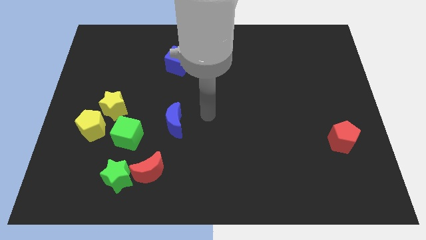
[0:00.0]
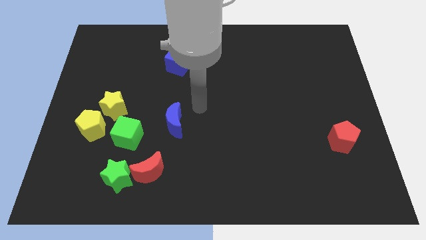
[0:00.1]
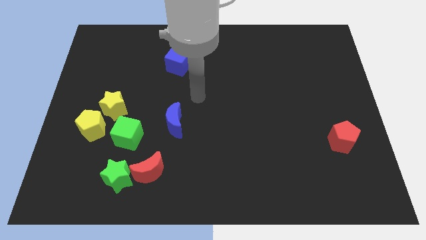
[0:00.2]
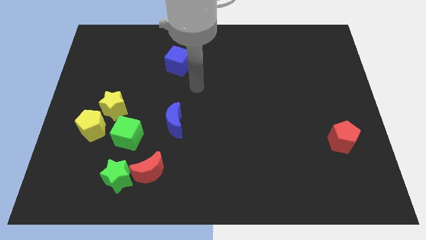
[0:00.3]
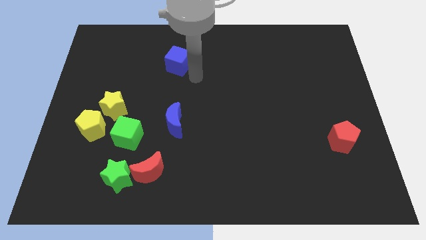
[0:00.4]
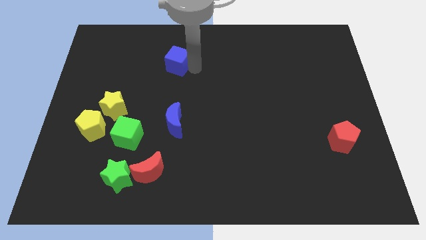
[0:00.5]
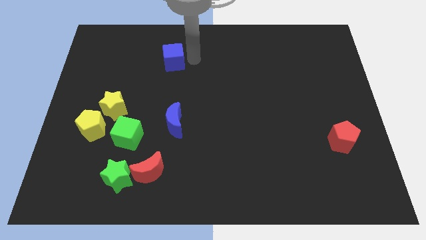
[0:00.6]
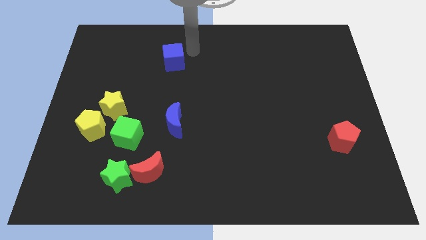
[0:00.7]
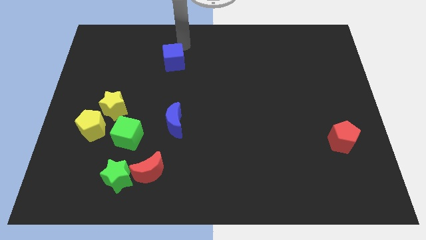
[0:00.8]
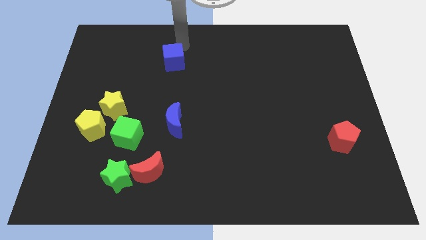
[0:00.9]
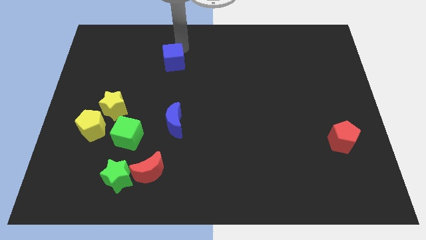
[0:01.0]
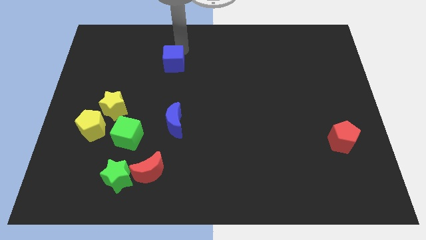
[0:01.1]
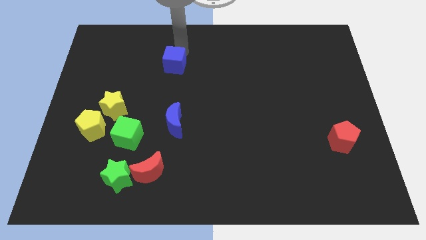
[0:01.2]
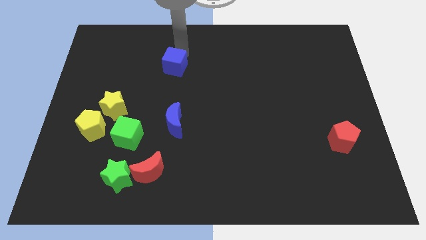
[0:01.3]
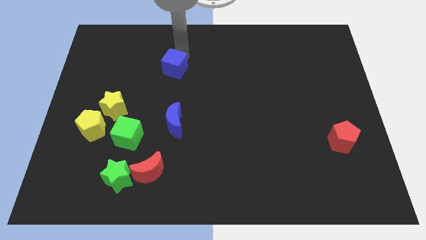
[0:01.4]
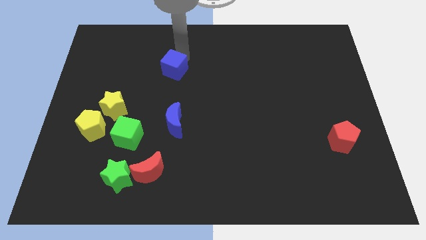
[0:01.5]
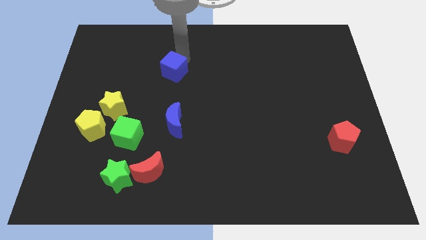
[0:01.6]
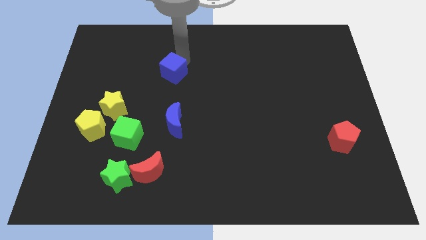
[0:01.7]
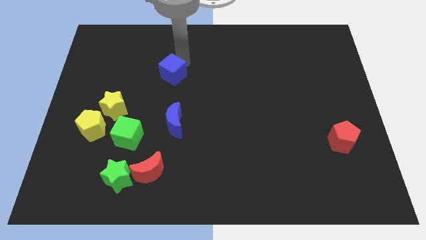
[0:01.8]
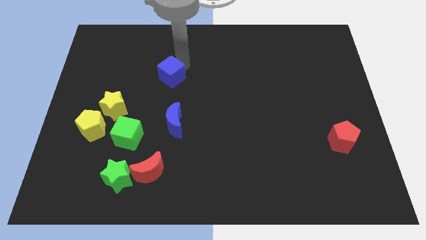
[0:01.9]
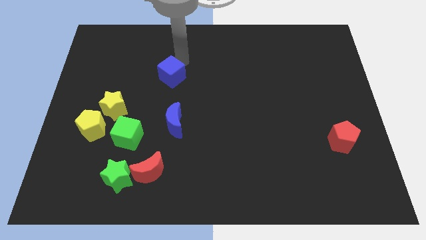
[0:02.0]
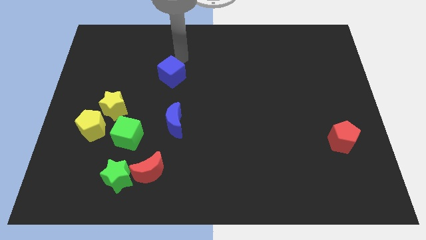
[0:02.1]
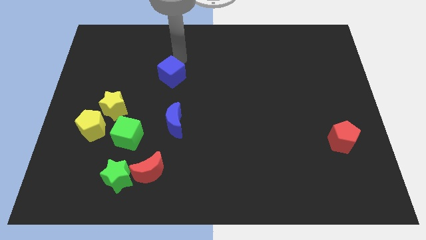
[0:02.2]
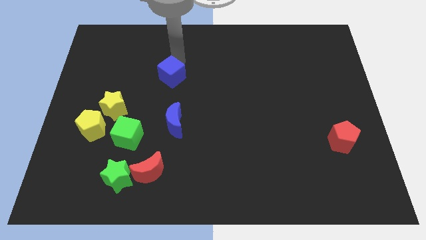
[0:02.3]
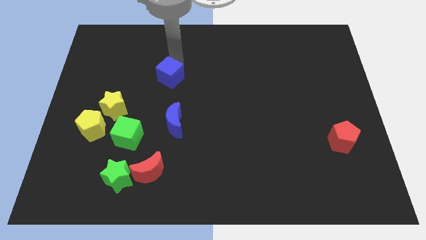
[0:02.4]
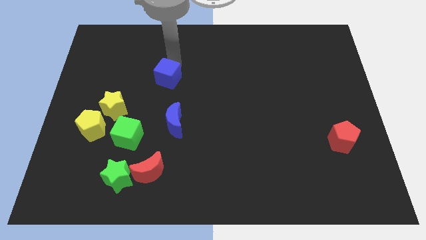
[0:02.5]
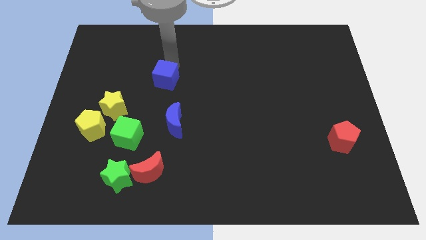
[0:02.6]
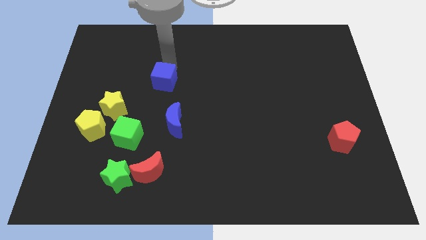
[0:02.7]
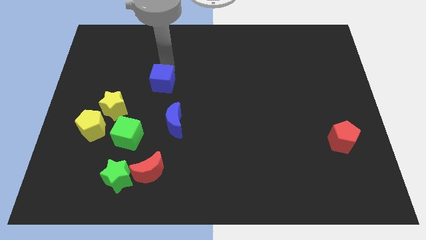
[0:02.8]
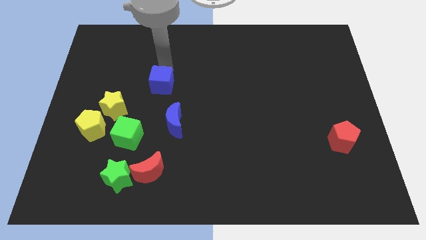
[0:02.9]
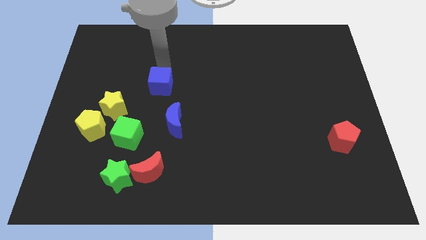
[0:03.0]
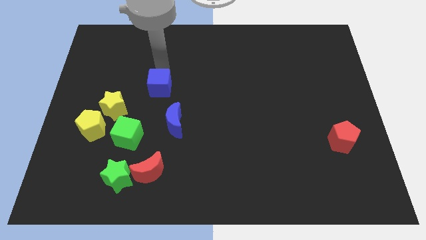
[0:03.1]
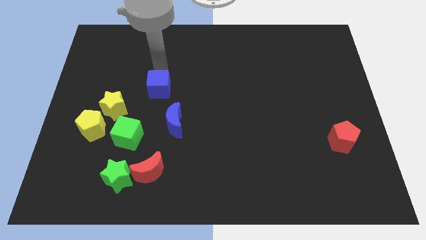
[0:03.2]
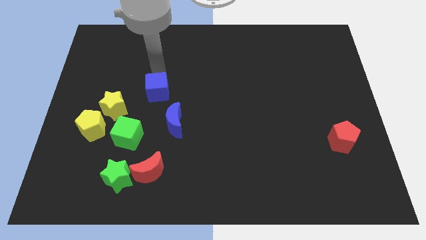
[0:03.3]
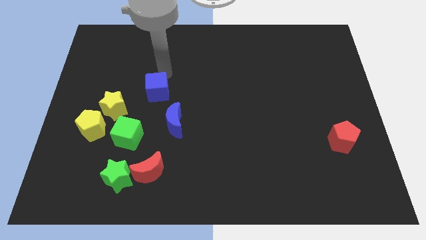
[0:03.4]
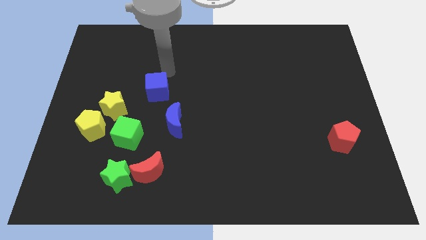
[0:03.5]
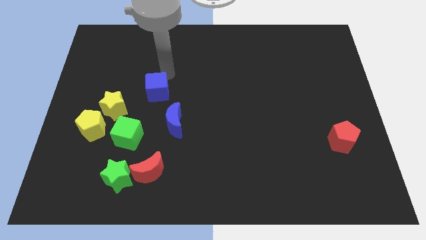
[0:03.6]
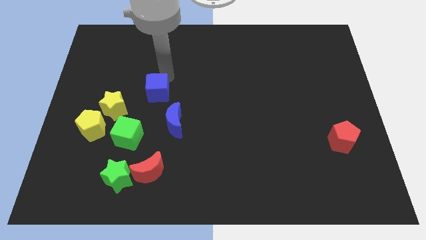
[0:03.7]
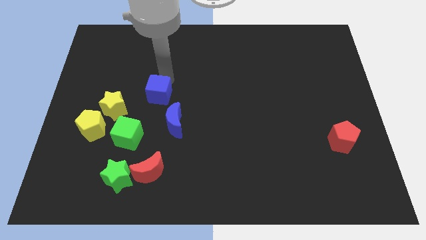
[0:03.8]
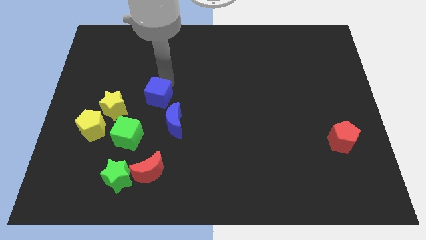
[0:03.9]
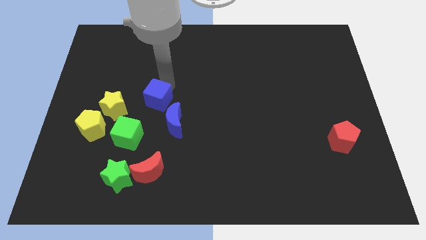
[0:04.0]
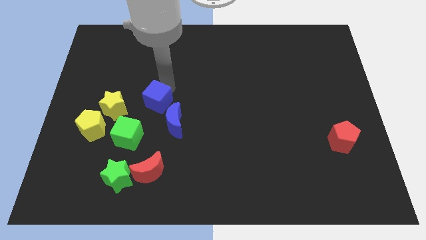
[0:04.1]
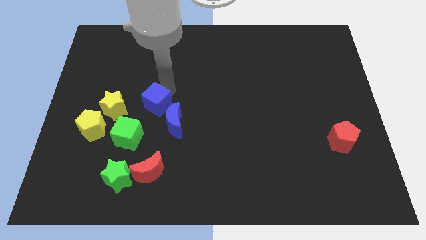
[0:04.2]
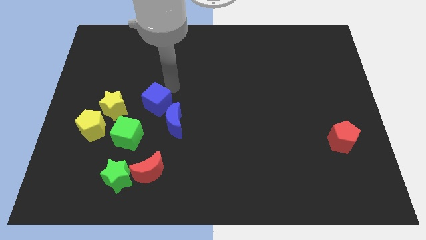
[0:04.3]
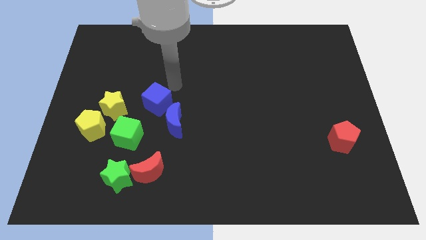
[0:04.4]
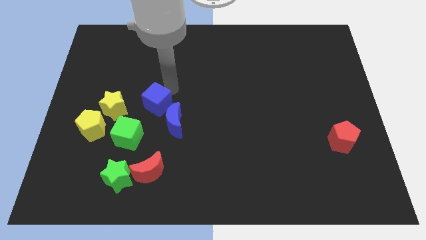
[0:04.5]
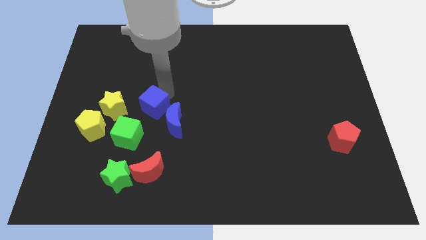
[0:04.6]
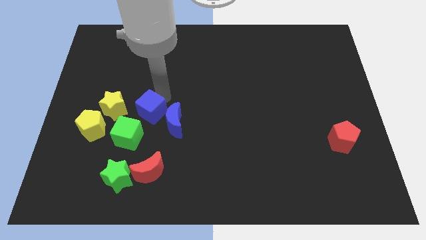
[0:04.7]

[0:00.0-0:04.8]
push the blue cube to the left side of the blue moon

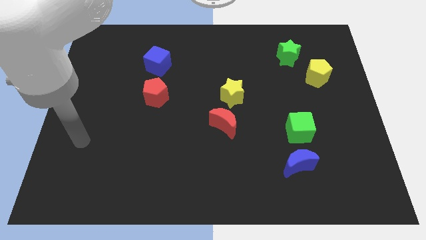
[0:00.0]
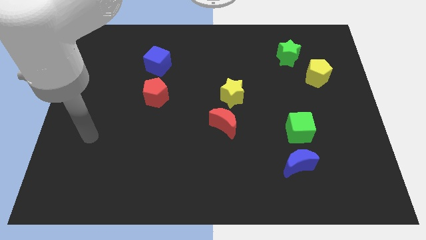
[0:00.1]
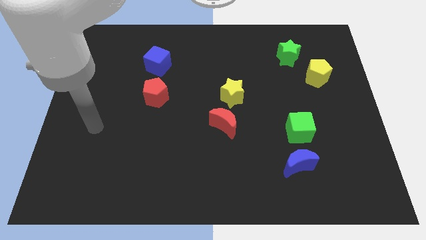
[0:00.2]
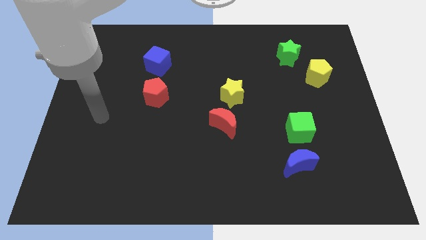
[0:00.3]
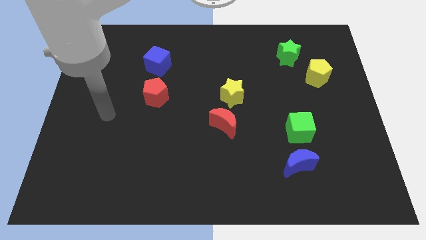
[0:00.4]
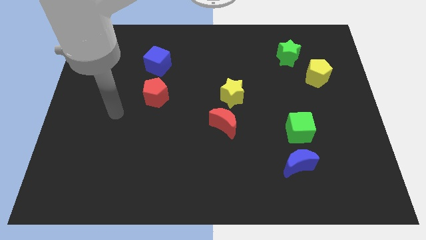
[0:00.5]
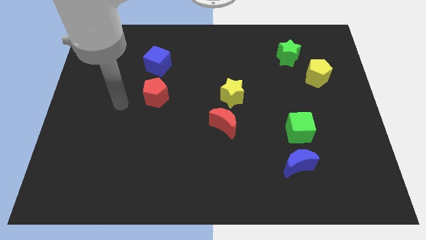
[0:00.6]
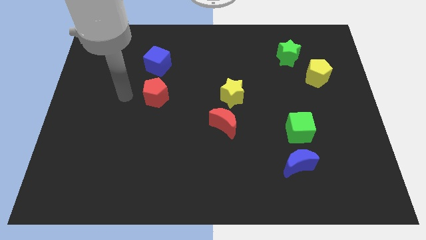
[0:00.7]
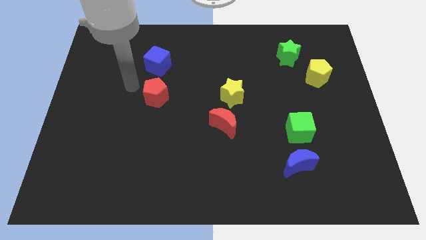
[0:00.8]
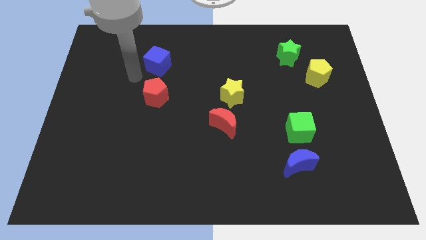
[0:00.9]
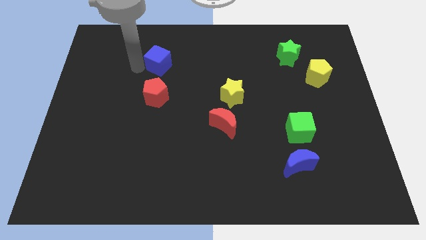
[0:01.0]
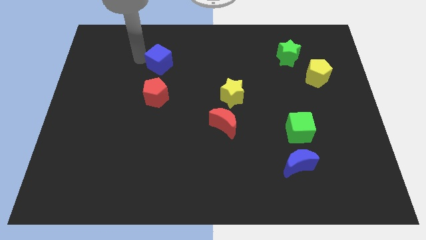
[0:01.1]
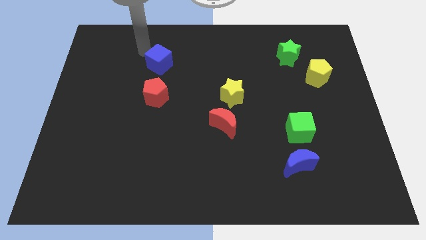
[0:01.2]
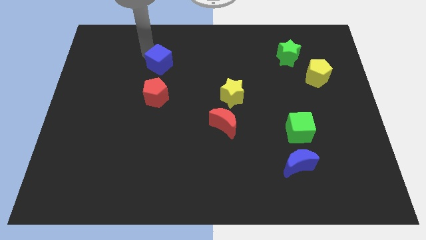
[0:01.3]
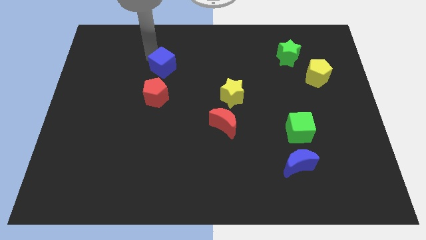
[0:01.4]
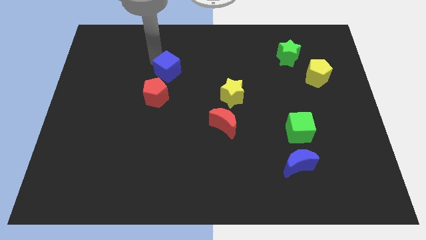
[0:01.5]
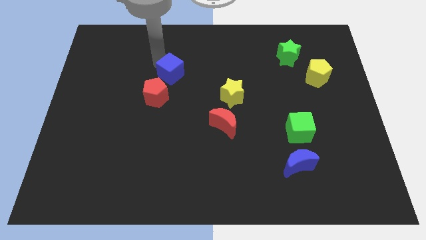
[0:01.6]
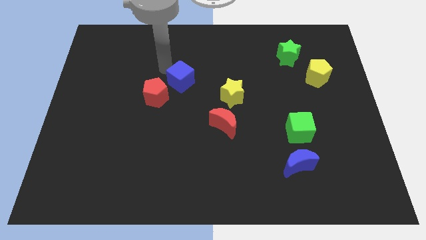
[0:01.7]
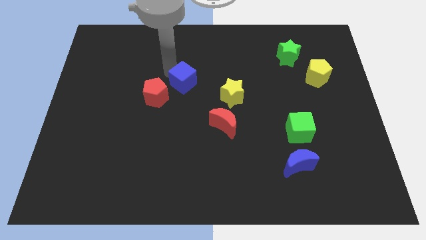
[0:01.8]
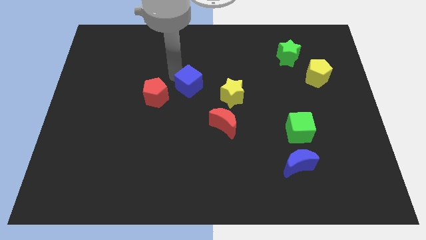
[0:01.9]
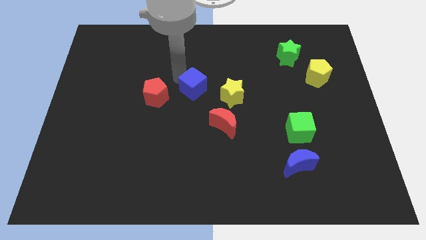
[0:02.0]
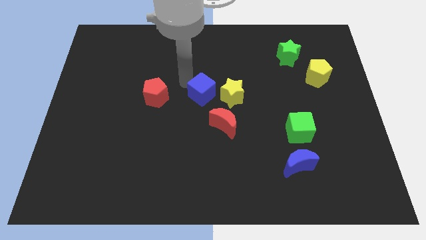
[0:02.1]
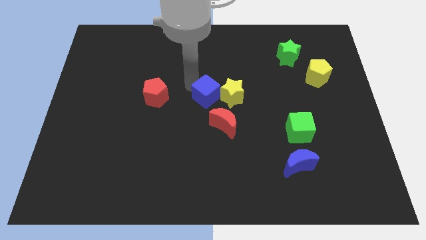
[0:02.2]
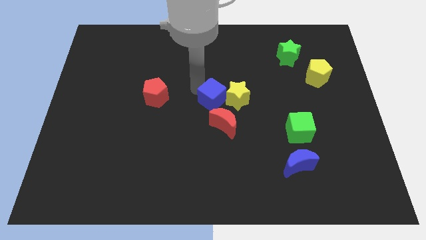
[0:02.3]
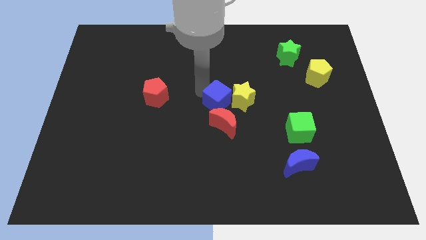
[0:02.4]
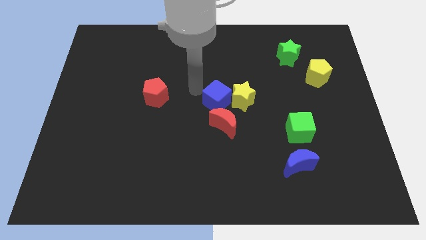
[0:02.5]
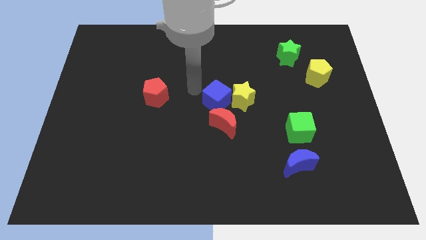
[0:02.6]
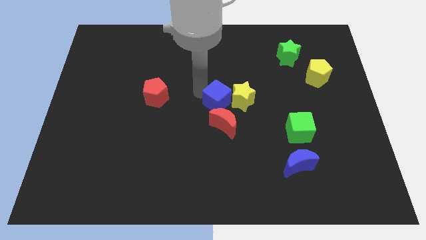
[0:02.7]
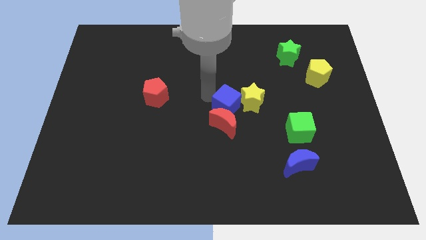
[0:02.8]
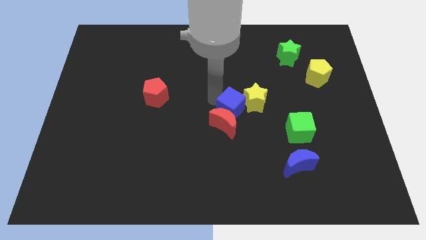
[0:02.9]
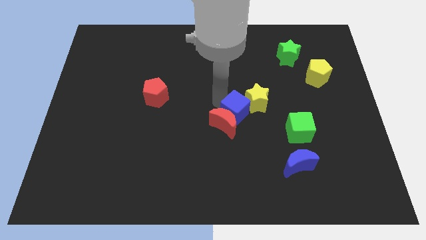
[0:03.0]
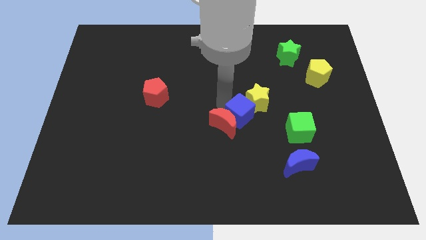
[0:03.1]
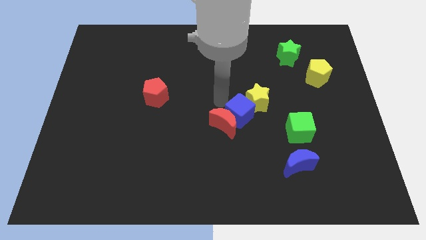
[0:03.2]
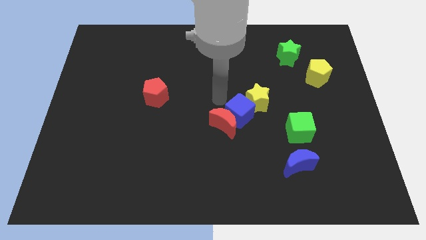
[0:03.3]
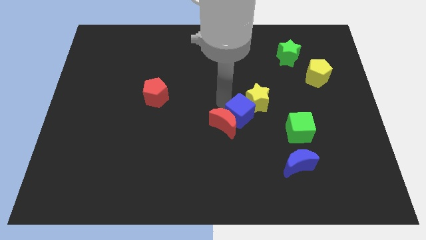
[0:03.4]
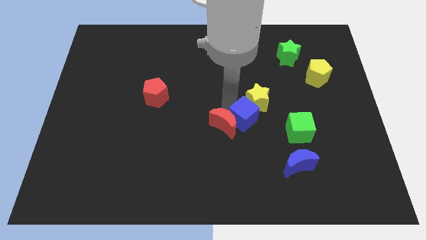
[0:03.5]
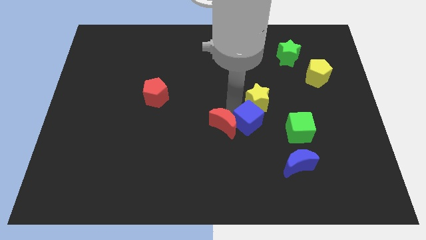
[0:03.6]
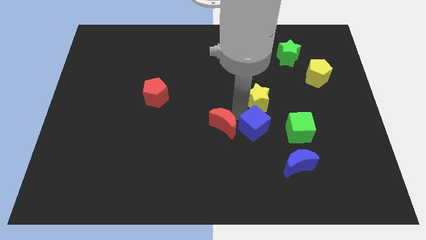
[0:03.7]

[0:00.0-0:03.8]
slide the blue cube diagonally up and to the left of the blue moon
